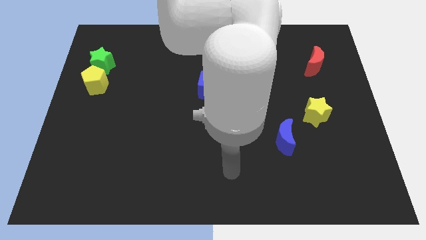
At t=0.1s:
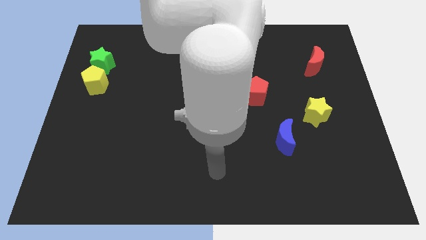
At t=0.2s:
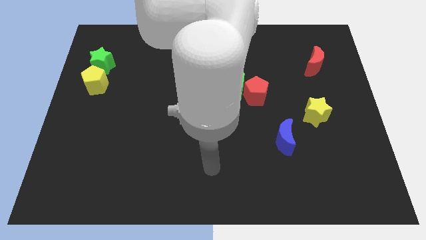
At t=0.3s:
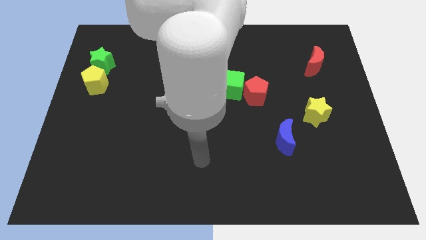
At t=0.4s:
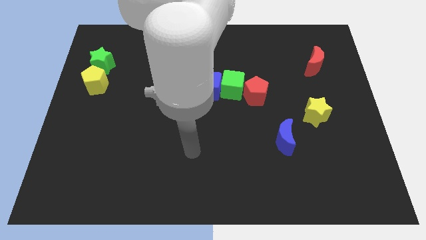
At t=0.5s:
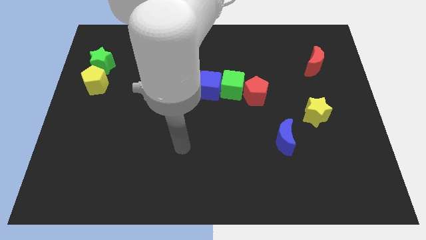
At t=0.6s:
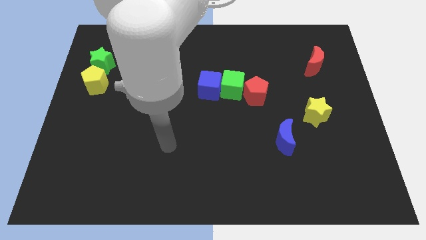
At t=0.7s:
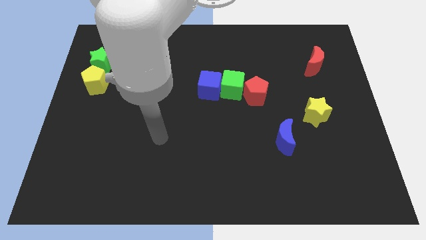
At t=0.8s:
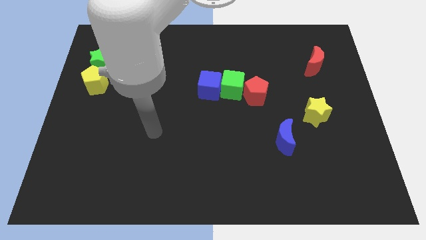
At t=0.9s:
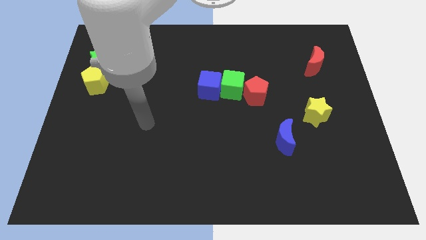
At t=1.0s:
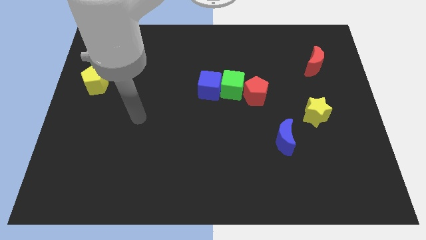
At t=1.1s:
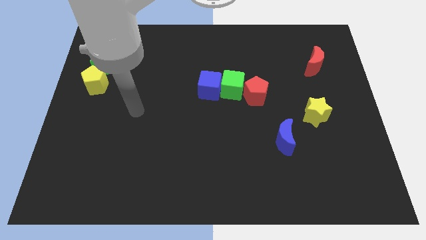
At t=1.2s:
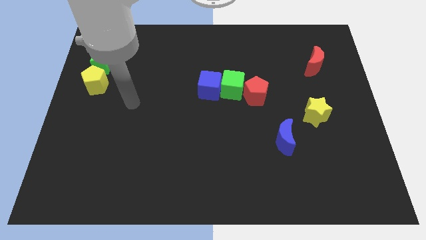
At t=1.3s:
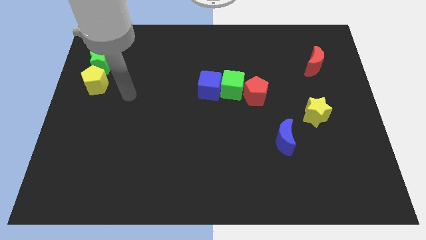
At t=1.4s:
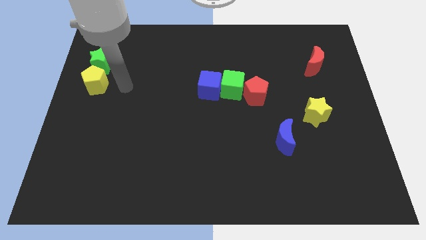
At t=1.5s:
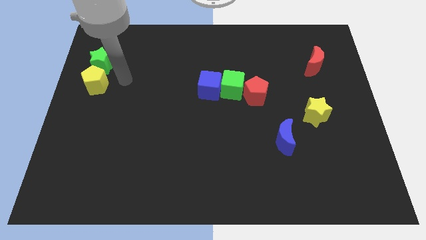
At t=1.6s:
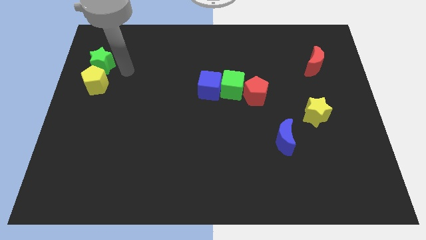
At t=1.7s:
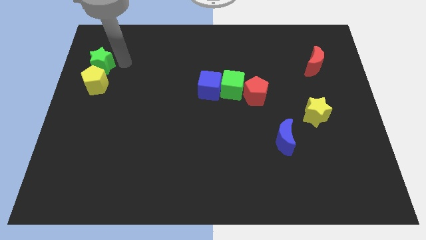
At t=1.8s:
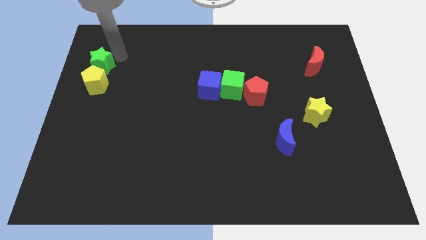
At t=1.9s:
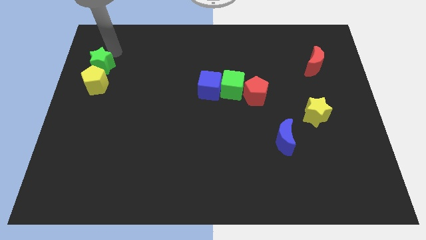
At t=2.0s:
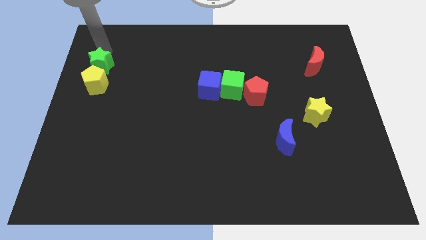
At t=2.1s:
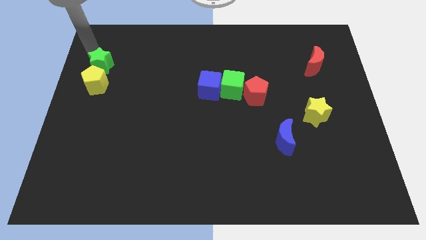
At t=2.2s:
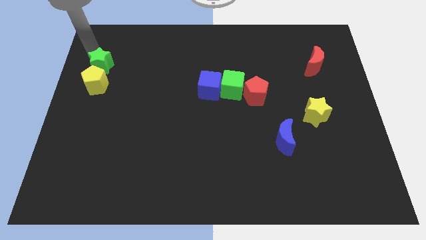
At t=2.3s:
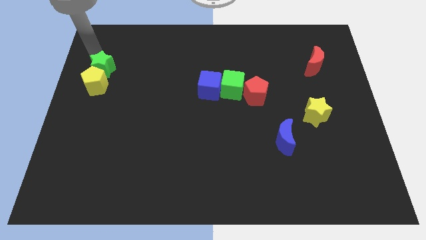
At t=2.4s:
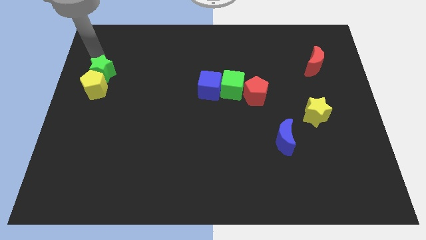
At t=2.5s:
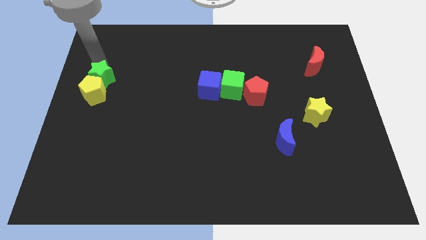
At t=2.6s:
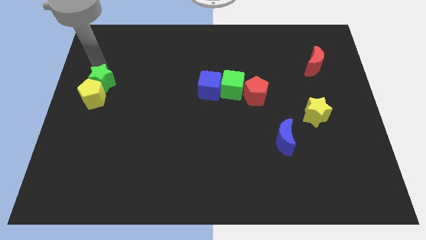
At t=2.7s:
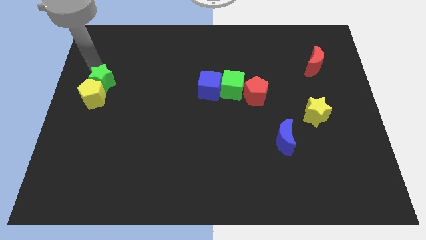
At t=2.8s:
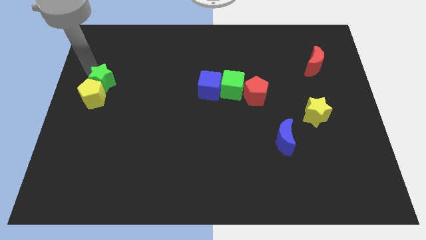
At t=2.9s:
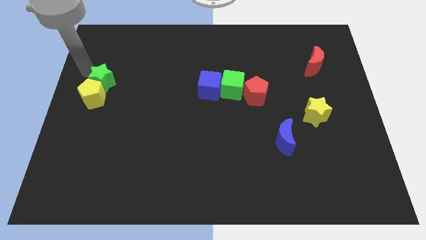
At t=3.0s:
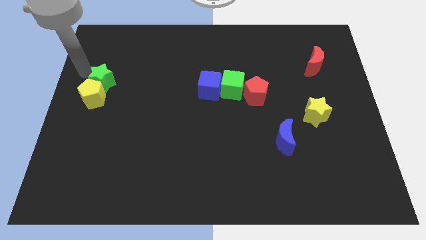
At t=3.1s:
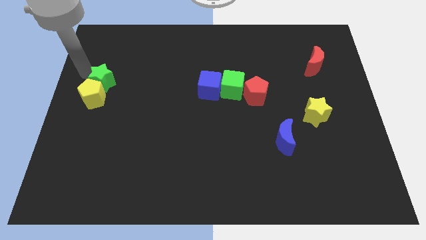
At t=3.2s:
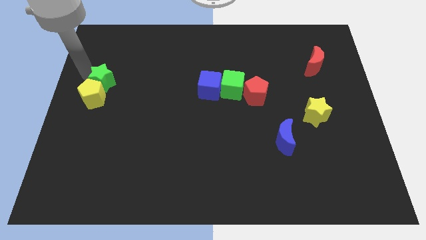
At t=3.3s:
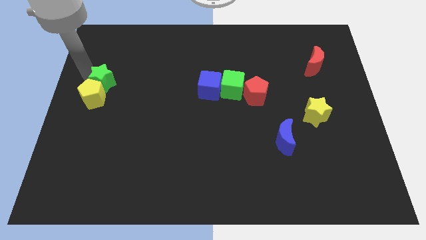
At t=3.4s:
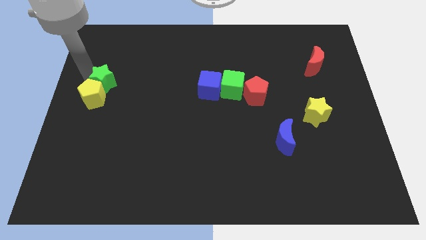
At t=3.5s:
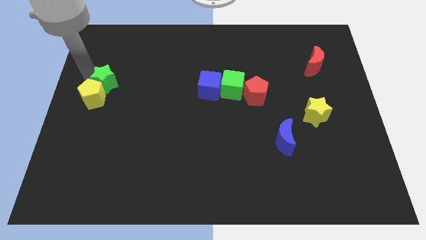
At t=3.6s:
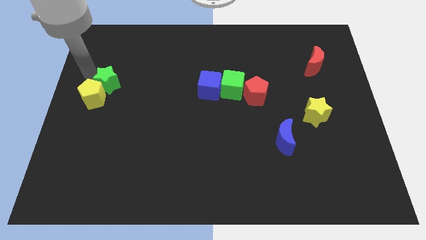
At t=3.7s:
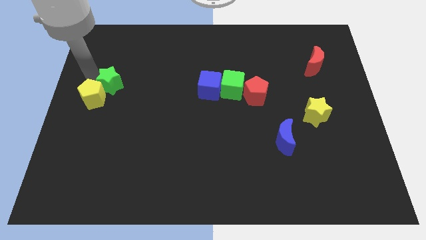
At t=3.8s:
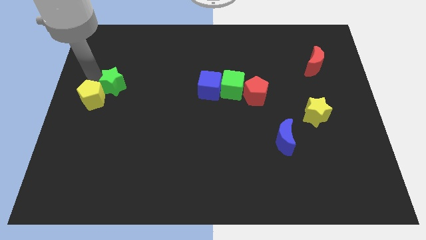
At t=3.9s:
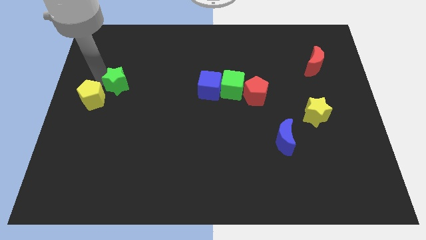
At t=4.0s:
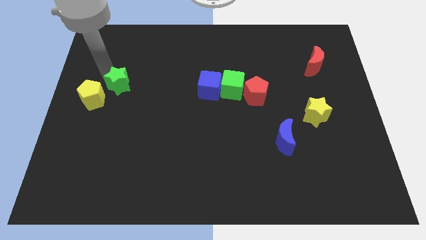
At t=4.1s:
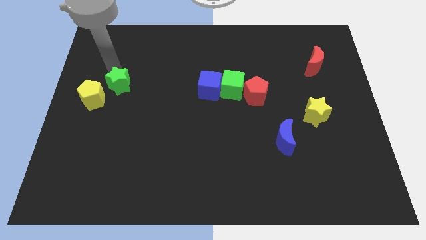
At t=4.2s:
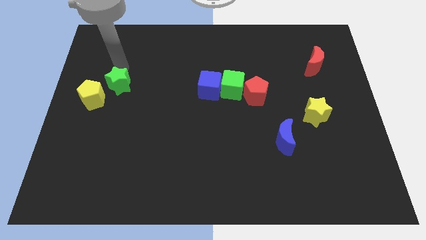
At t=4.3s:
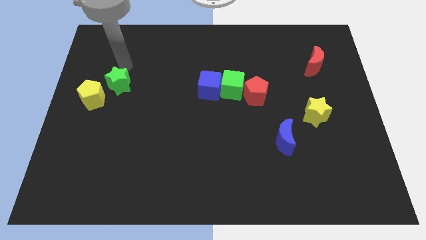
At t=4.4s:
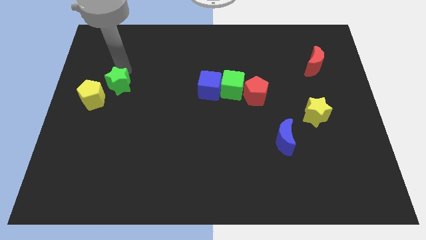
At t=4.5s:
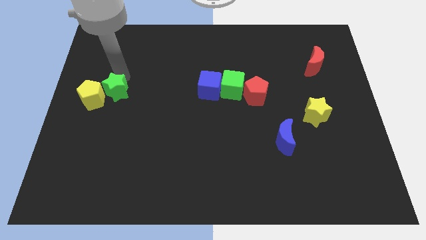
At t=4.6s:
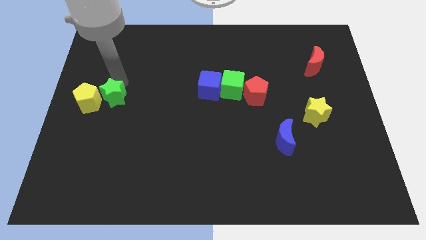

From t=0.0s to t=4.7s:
move the green star to the bottom right side of the yellow pentagon

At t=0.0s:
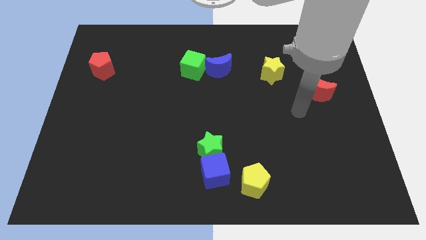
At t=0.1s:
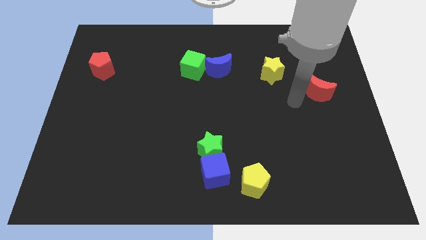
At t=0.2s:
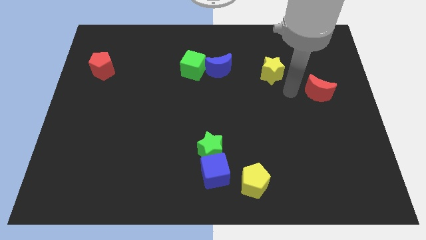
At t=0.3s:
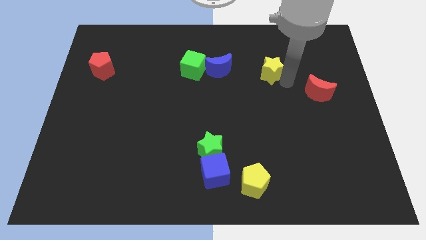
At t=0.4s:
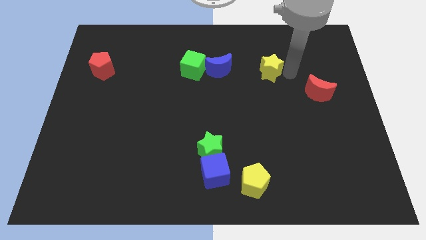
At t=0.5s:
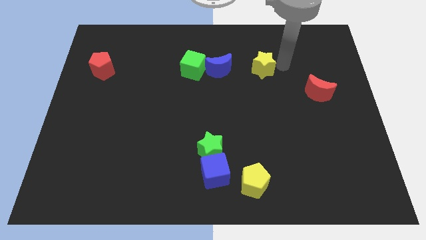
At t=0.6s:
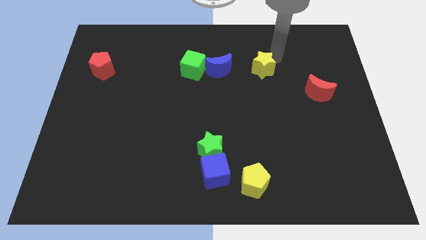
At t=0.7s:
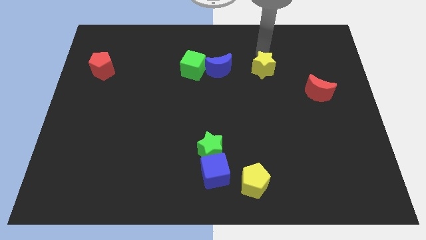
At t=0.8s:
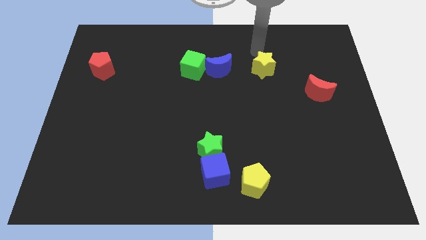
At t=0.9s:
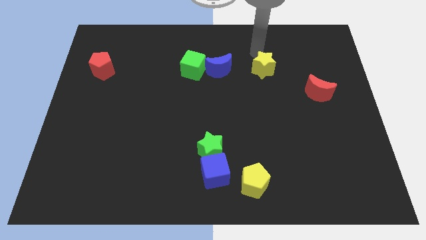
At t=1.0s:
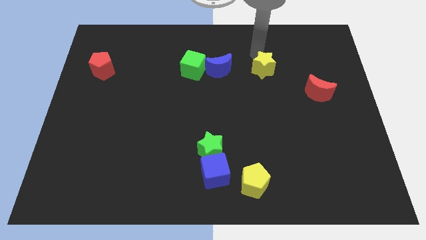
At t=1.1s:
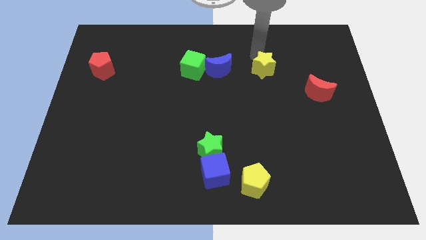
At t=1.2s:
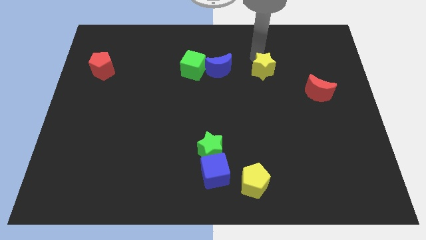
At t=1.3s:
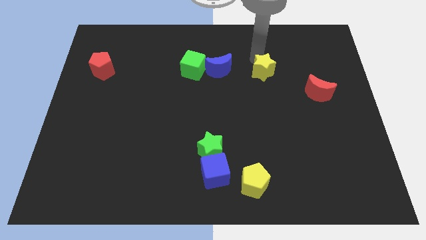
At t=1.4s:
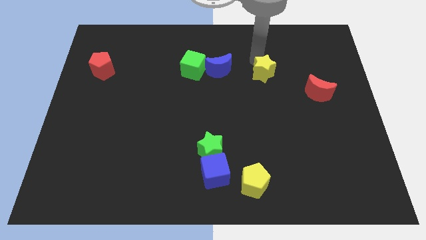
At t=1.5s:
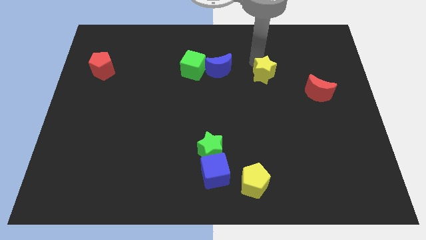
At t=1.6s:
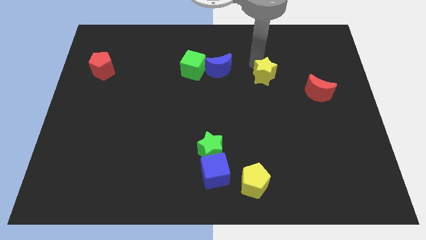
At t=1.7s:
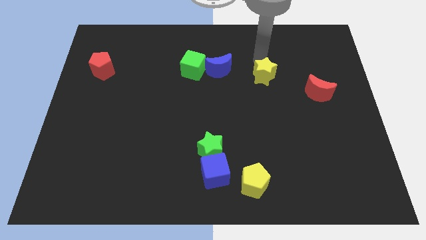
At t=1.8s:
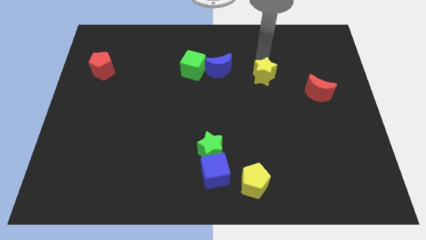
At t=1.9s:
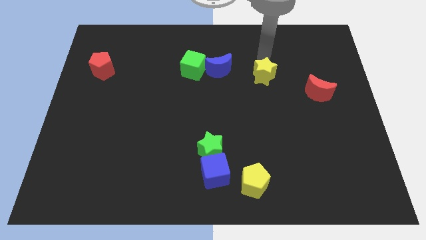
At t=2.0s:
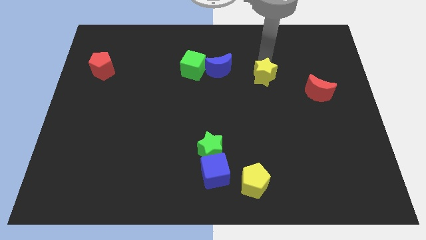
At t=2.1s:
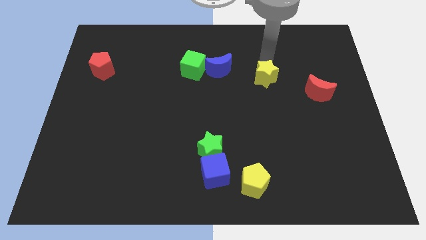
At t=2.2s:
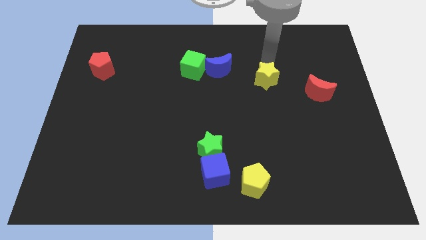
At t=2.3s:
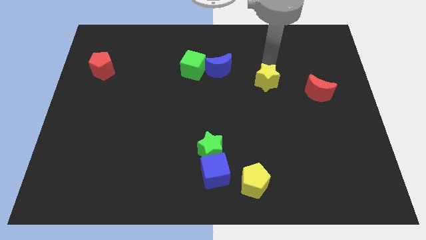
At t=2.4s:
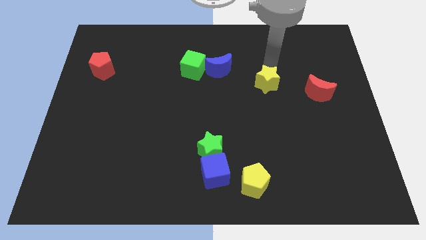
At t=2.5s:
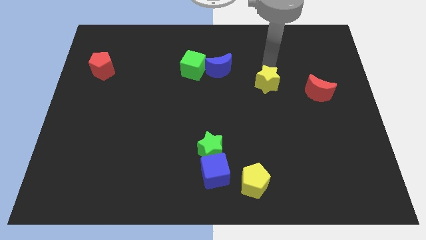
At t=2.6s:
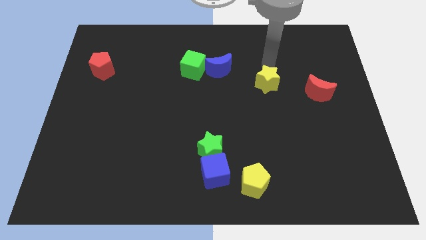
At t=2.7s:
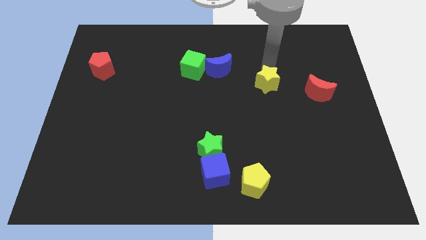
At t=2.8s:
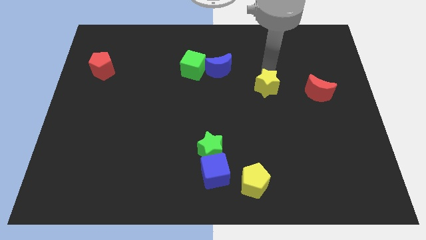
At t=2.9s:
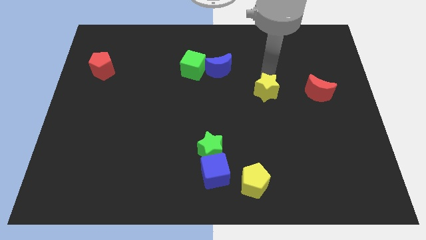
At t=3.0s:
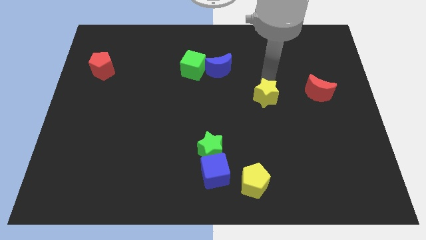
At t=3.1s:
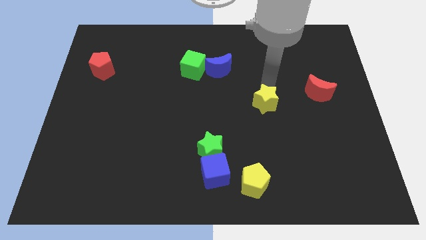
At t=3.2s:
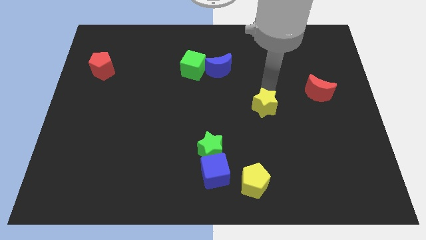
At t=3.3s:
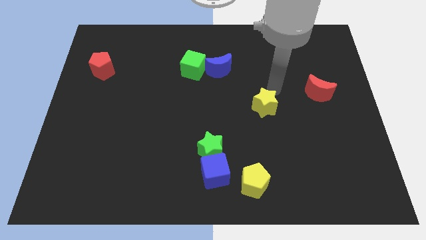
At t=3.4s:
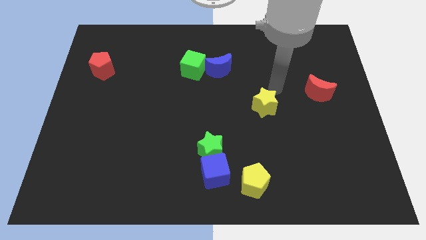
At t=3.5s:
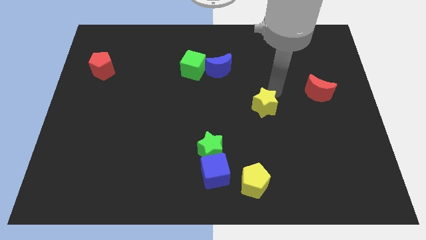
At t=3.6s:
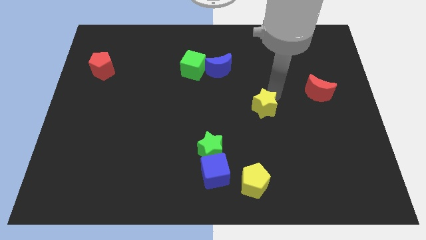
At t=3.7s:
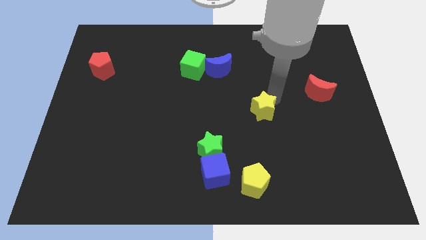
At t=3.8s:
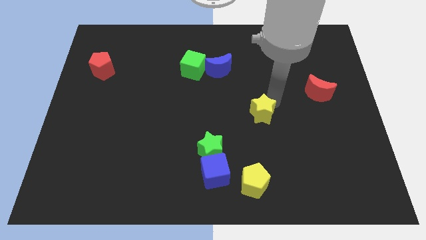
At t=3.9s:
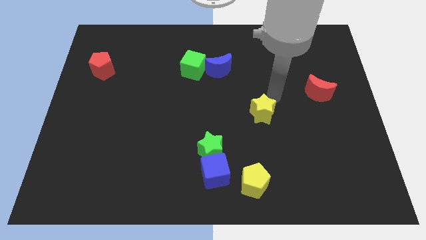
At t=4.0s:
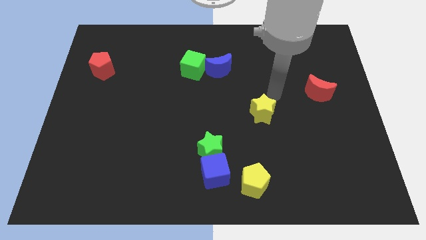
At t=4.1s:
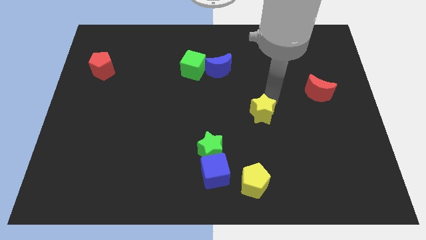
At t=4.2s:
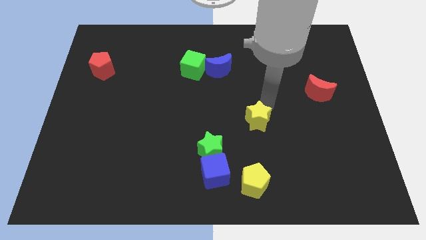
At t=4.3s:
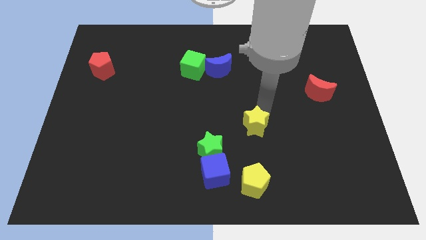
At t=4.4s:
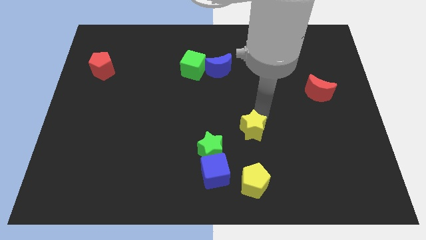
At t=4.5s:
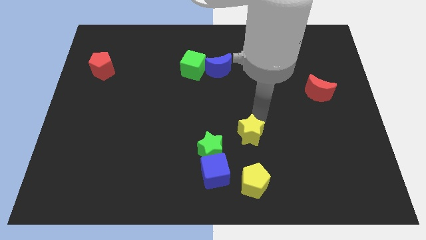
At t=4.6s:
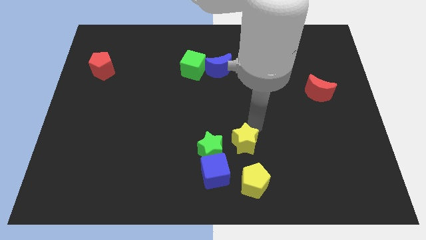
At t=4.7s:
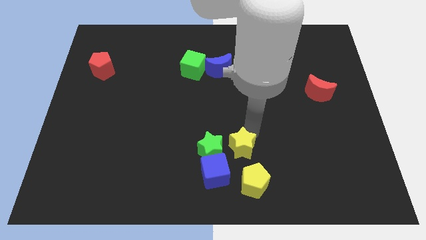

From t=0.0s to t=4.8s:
slide the yellow star to the top left of the yellow pentagon
